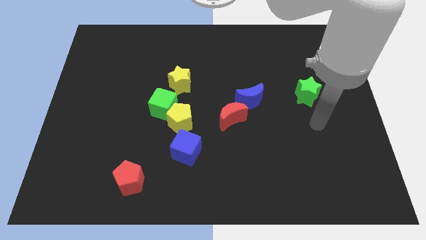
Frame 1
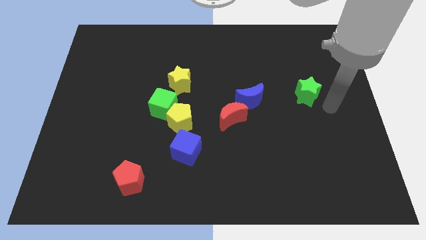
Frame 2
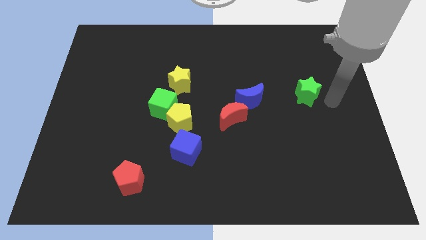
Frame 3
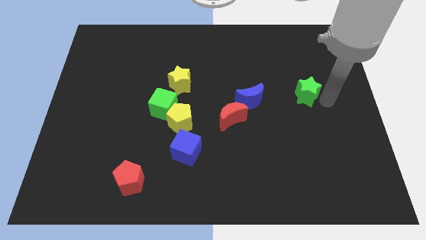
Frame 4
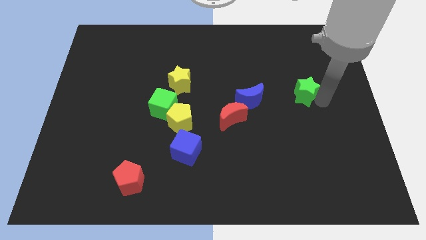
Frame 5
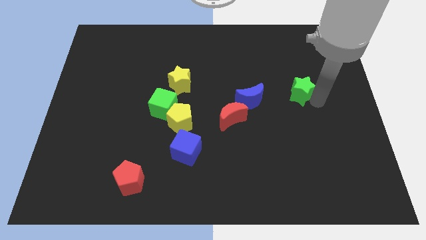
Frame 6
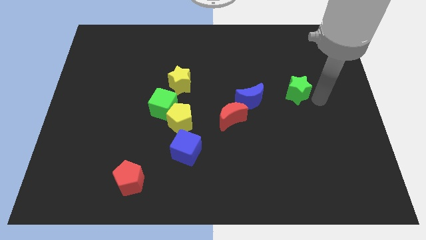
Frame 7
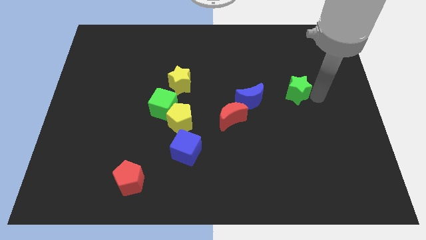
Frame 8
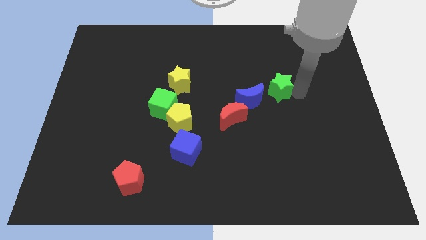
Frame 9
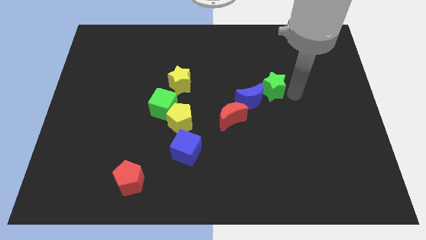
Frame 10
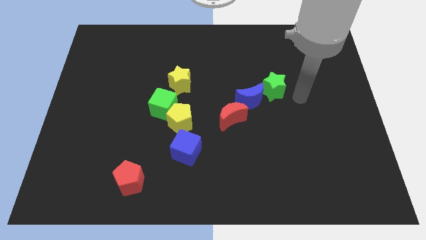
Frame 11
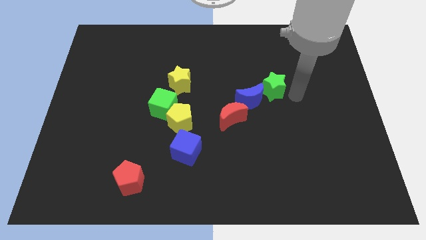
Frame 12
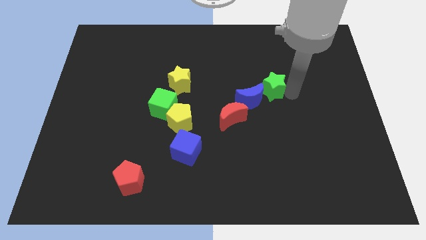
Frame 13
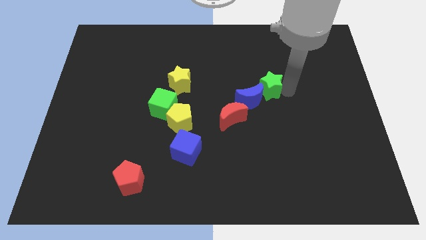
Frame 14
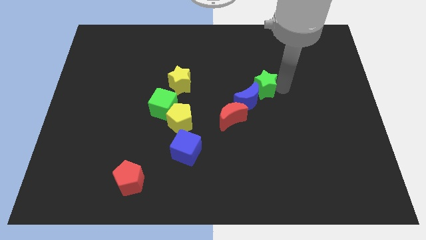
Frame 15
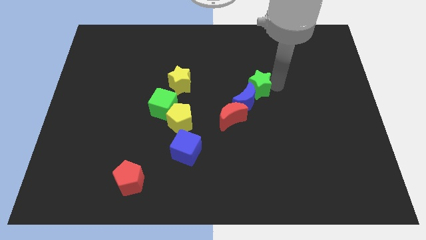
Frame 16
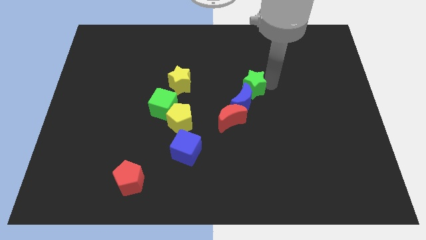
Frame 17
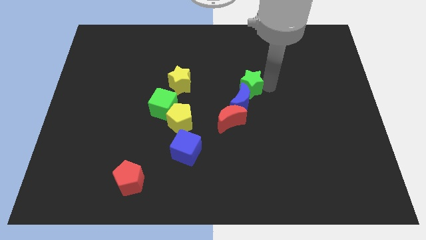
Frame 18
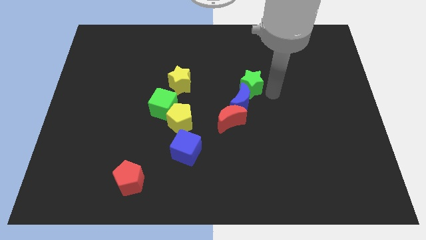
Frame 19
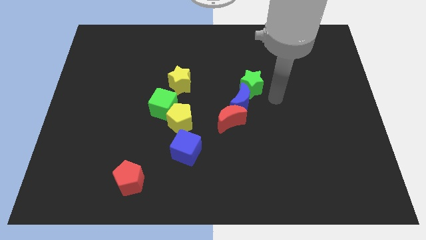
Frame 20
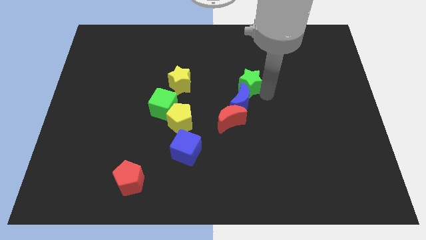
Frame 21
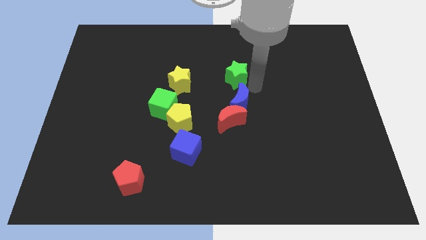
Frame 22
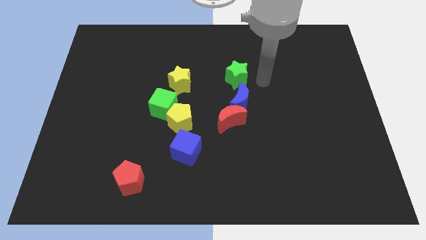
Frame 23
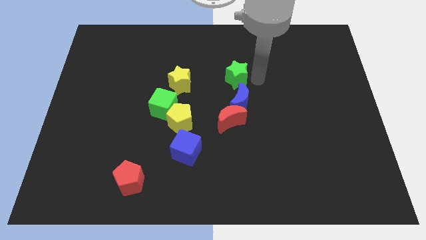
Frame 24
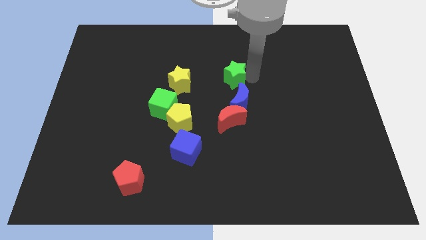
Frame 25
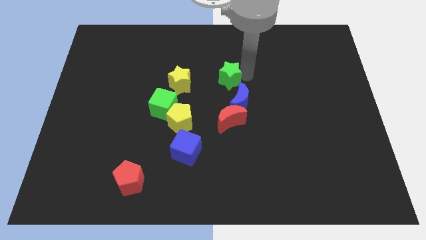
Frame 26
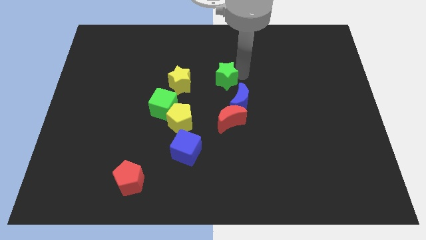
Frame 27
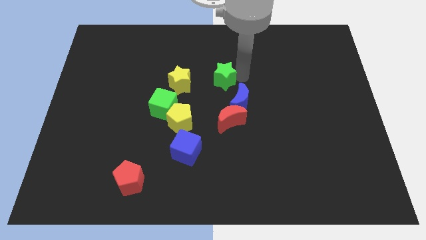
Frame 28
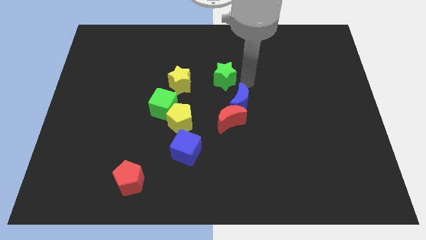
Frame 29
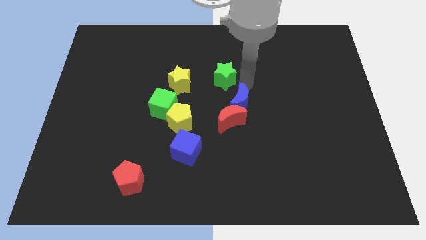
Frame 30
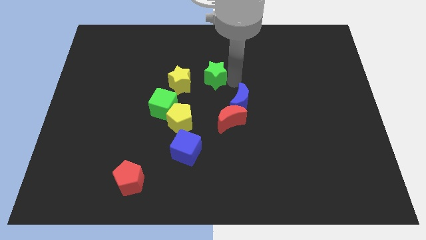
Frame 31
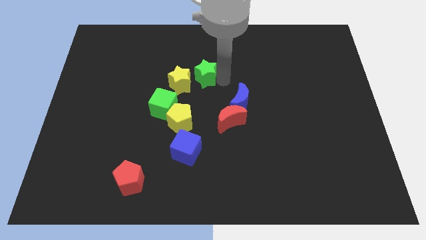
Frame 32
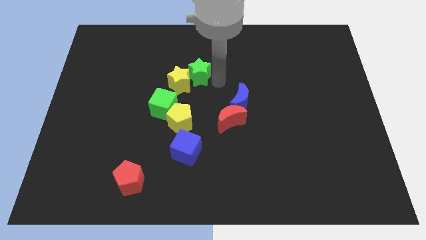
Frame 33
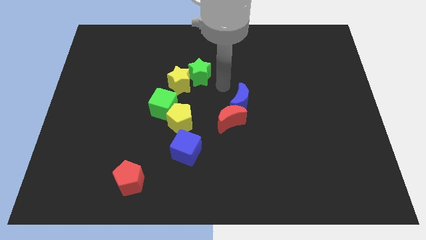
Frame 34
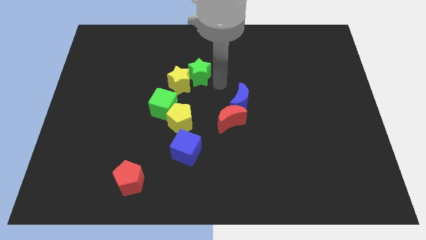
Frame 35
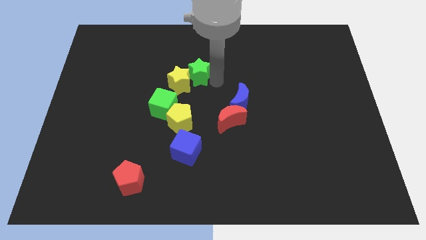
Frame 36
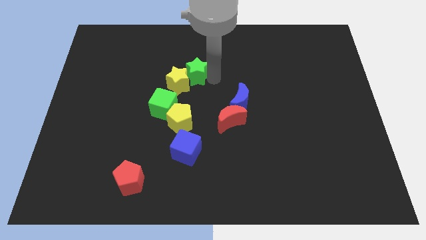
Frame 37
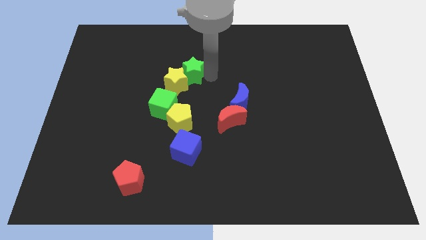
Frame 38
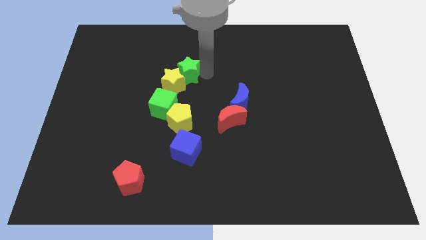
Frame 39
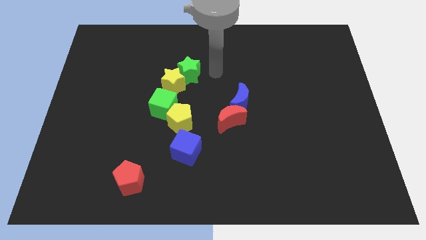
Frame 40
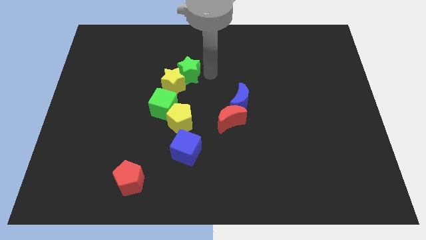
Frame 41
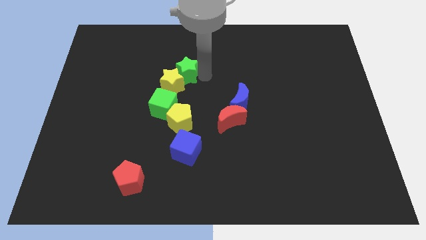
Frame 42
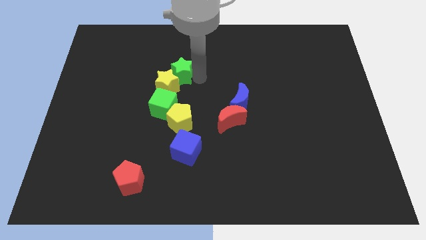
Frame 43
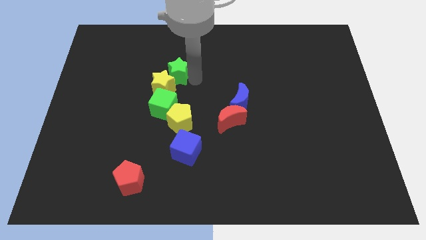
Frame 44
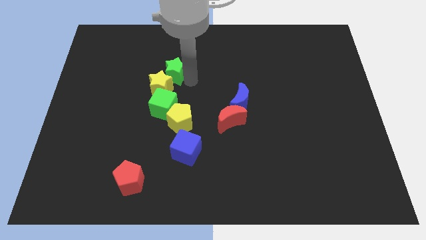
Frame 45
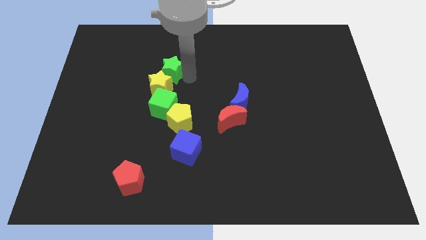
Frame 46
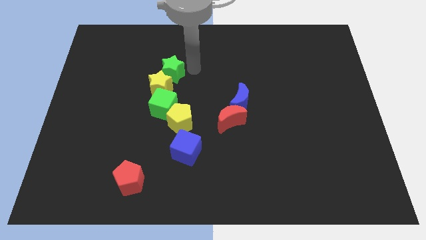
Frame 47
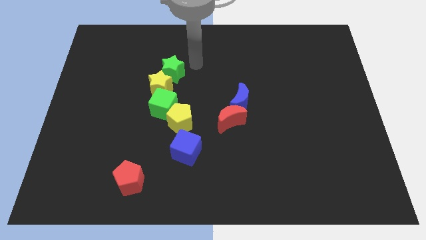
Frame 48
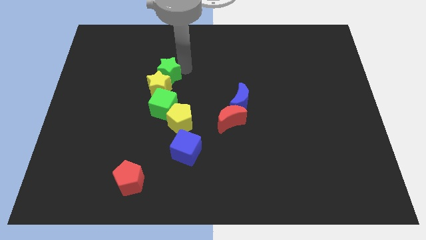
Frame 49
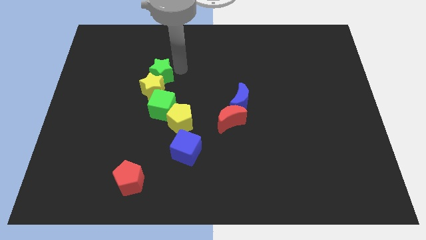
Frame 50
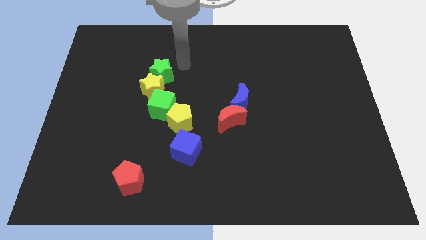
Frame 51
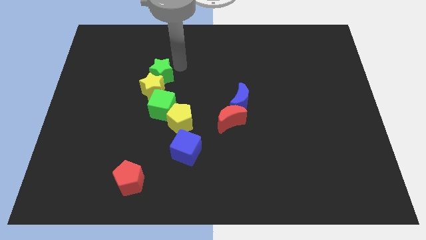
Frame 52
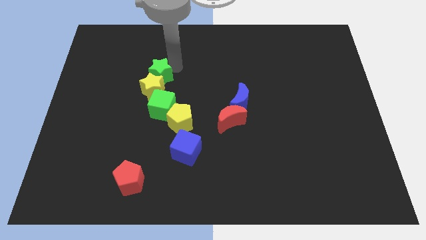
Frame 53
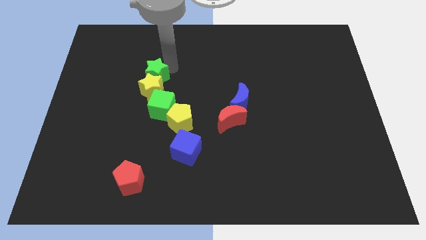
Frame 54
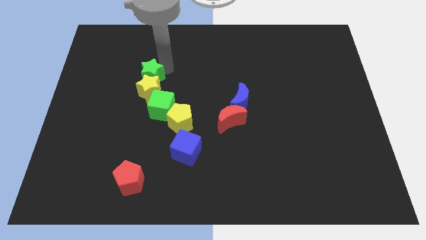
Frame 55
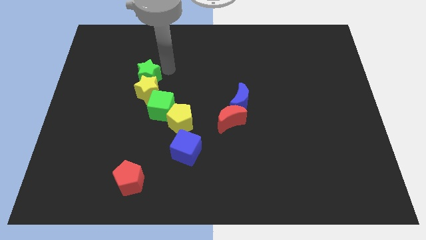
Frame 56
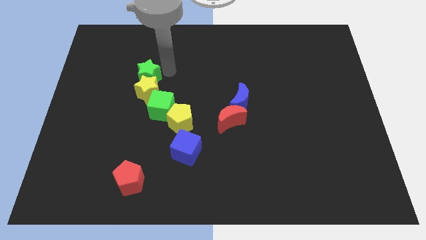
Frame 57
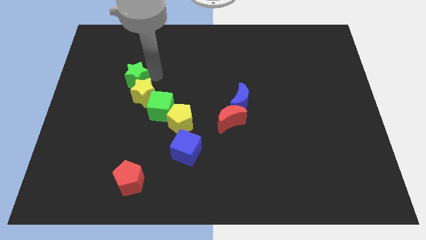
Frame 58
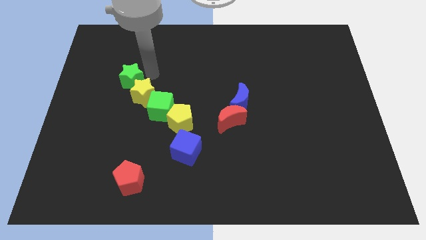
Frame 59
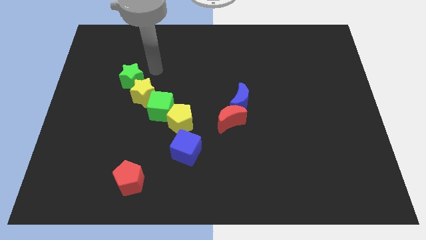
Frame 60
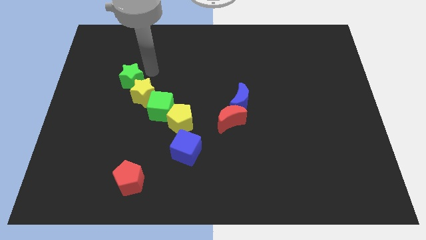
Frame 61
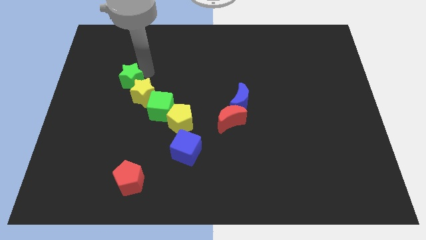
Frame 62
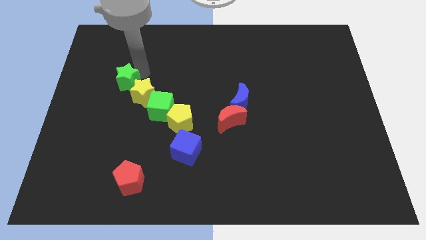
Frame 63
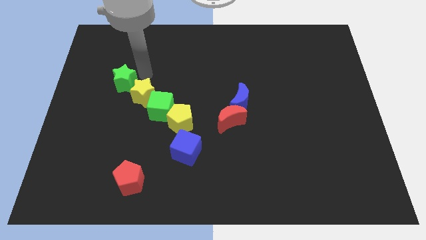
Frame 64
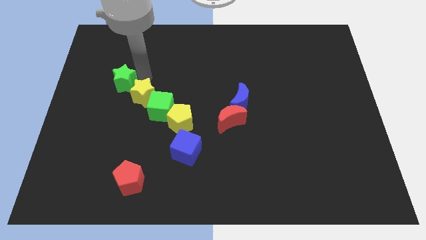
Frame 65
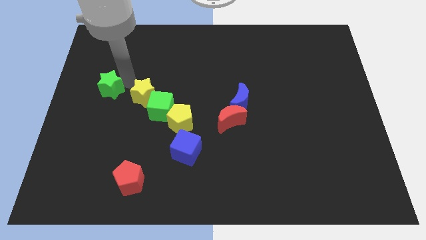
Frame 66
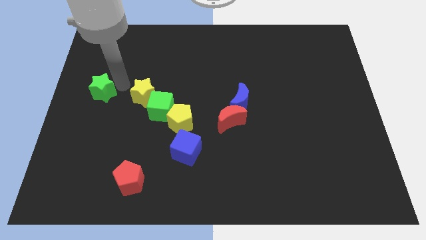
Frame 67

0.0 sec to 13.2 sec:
push the green star to the center left

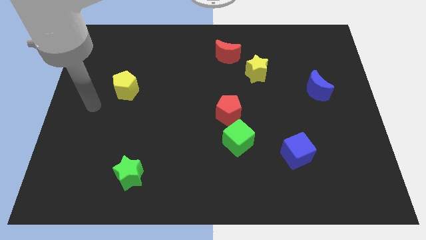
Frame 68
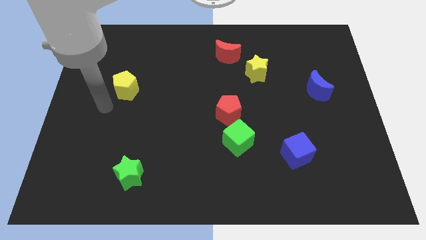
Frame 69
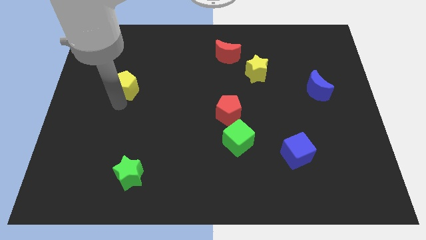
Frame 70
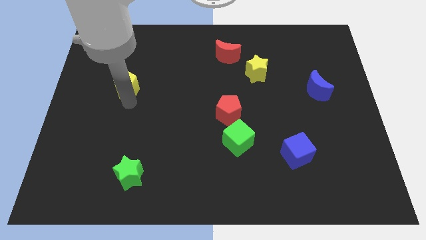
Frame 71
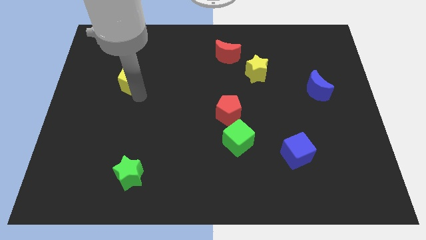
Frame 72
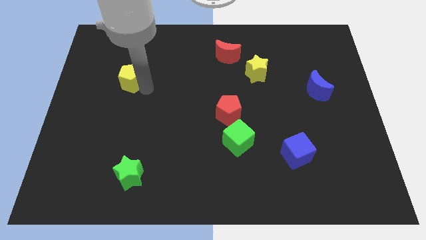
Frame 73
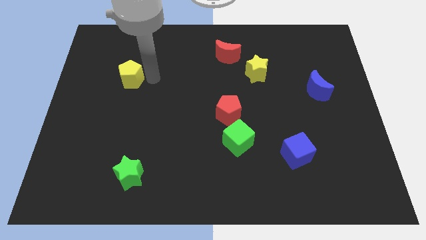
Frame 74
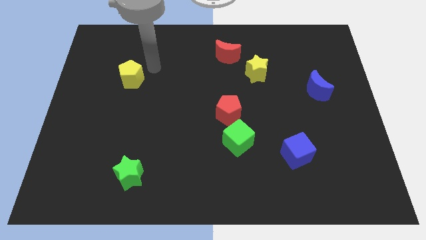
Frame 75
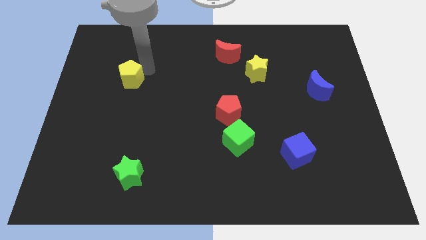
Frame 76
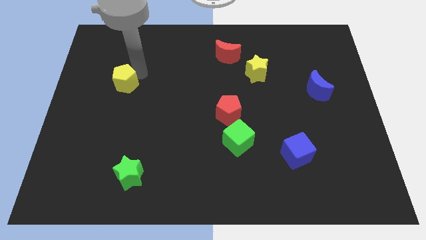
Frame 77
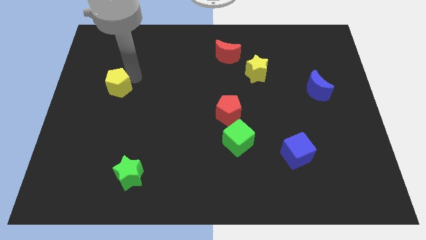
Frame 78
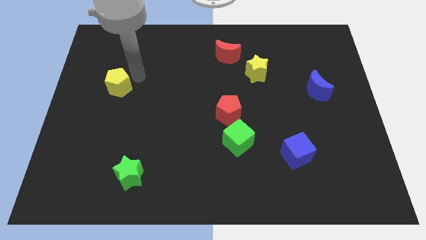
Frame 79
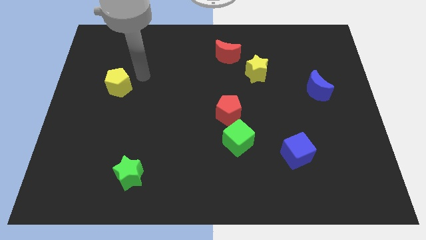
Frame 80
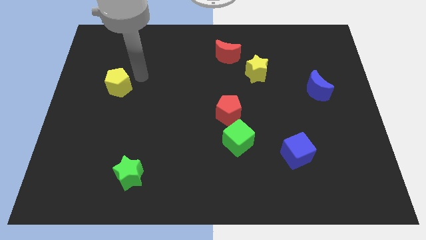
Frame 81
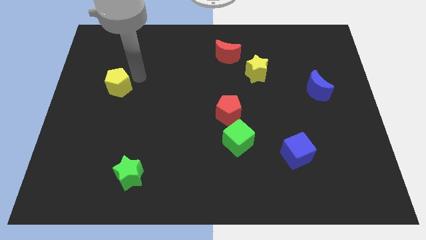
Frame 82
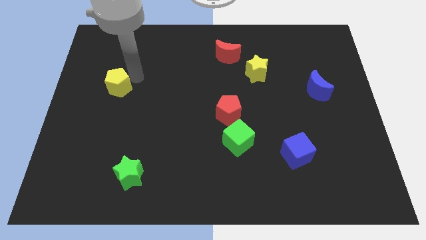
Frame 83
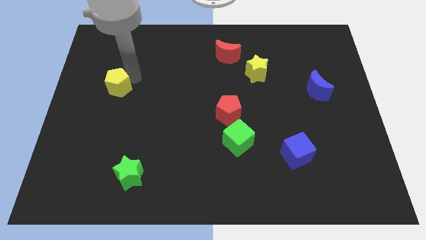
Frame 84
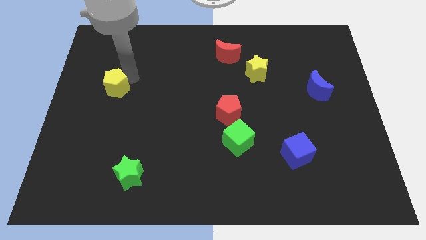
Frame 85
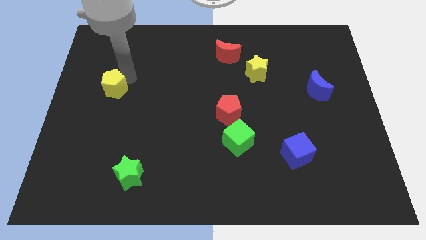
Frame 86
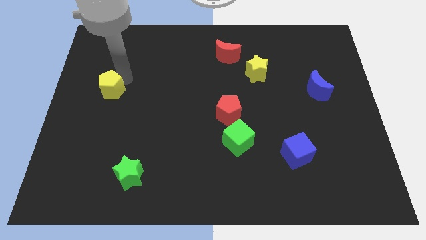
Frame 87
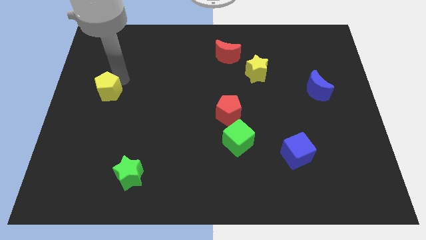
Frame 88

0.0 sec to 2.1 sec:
push the yellow pentagon to the center left
